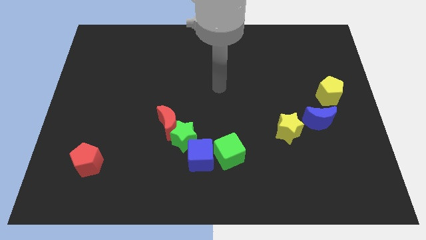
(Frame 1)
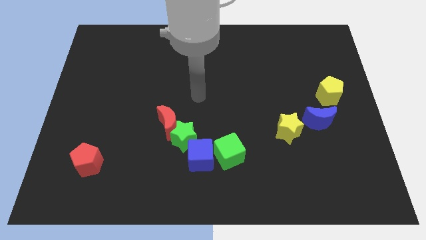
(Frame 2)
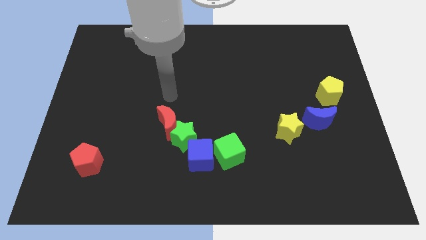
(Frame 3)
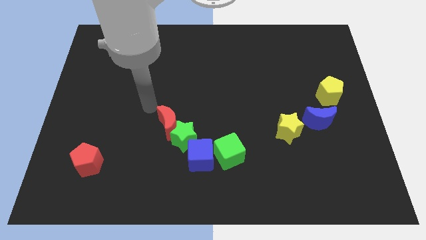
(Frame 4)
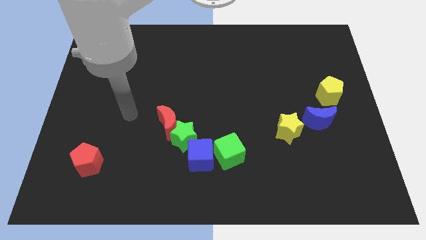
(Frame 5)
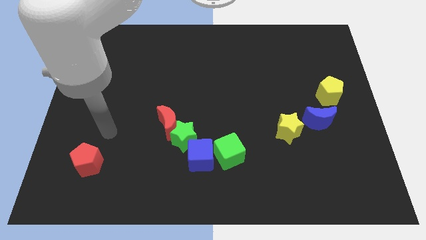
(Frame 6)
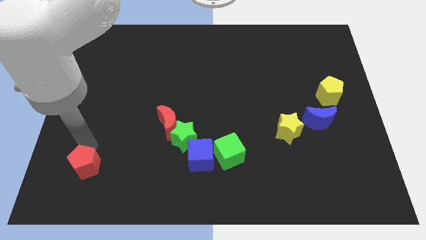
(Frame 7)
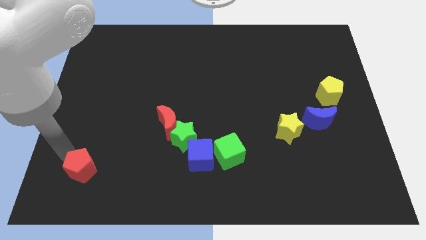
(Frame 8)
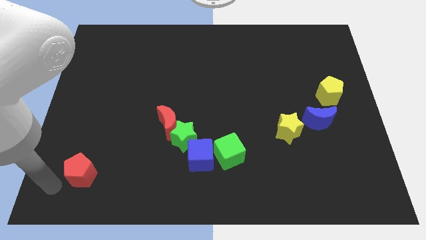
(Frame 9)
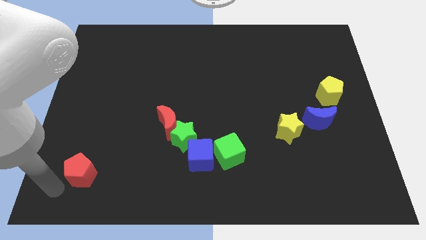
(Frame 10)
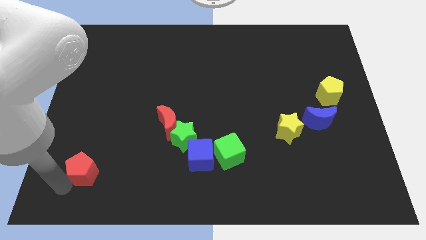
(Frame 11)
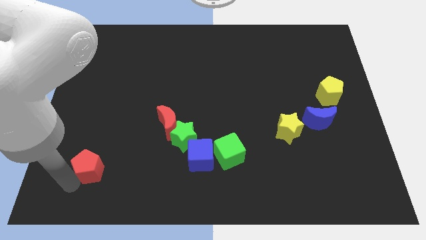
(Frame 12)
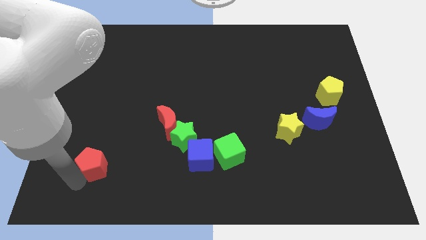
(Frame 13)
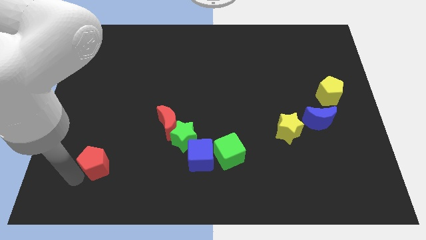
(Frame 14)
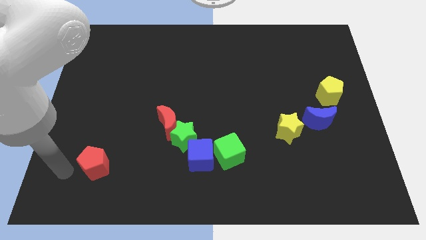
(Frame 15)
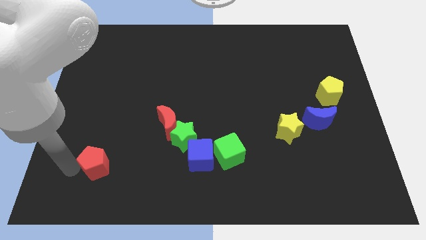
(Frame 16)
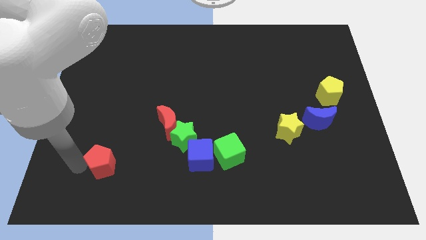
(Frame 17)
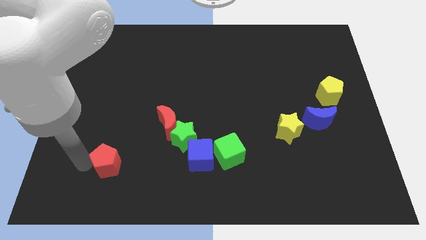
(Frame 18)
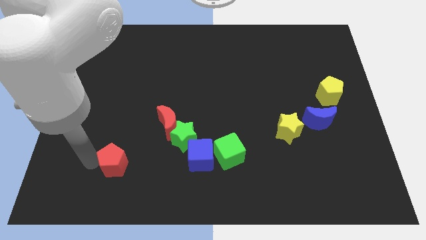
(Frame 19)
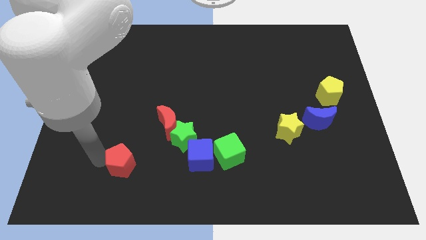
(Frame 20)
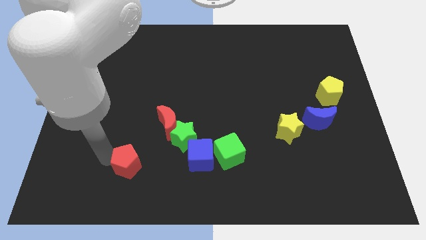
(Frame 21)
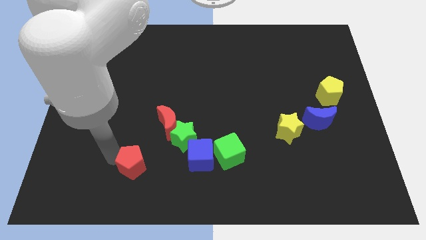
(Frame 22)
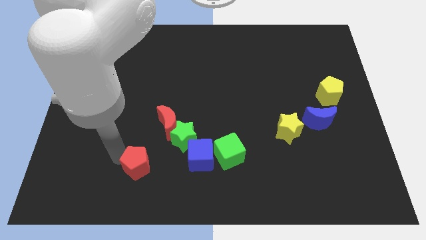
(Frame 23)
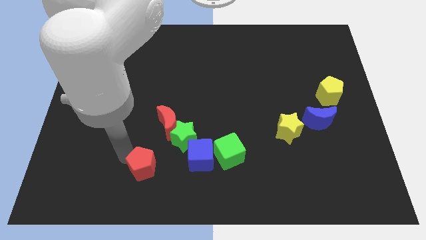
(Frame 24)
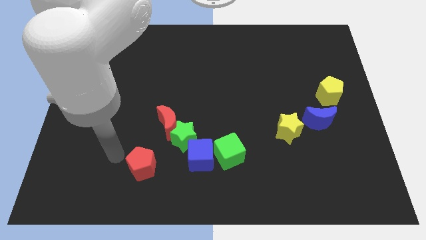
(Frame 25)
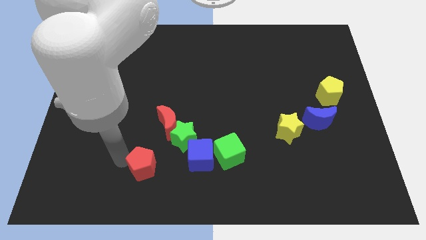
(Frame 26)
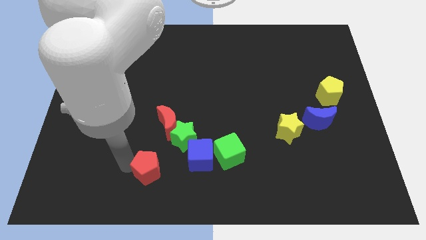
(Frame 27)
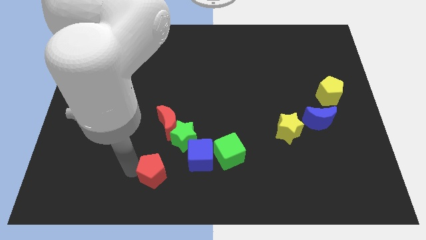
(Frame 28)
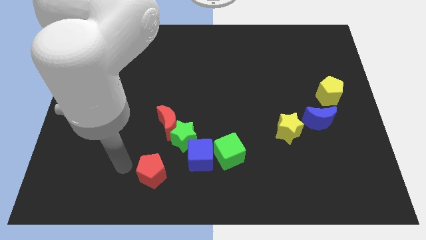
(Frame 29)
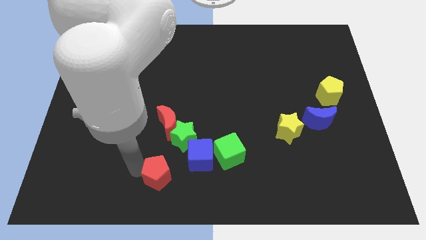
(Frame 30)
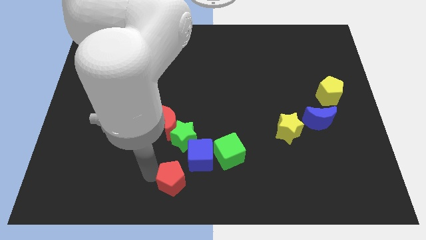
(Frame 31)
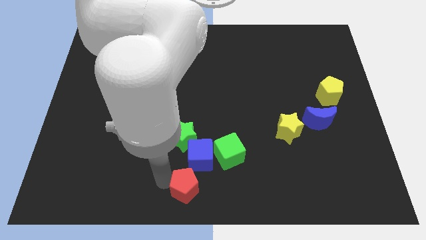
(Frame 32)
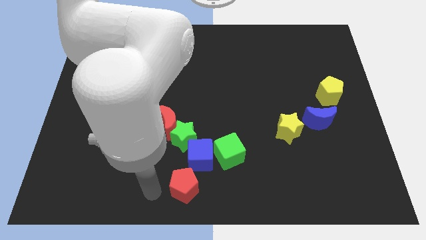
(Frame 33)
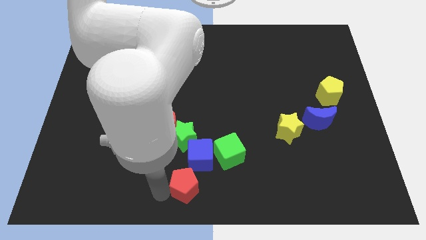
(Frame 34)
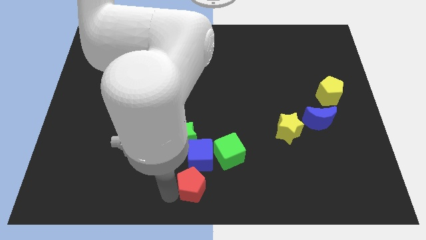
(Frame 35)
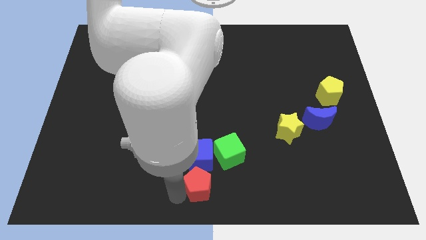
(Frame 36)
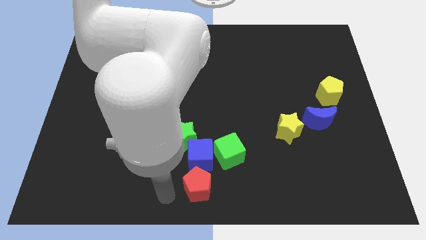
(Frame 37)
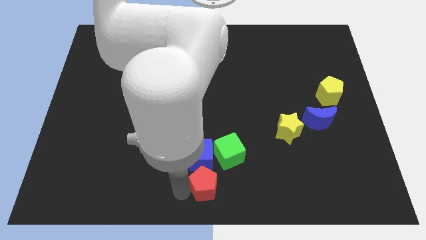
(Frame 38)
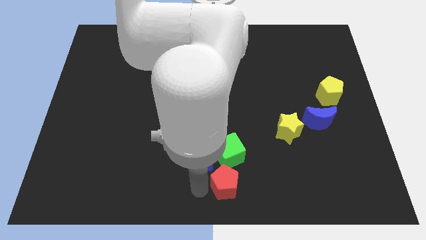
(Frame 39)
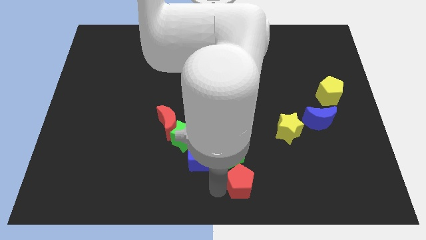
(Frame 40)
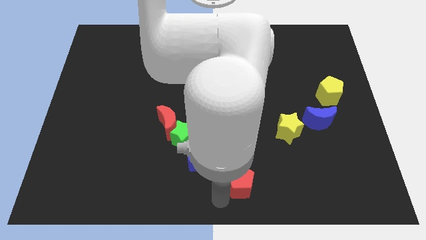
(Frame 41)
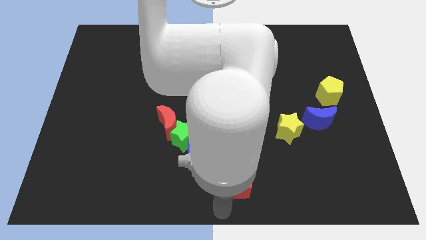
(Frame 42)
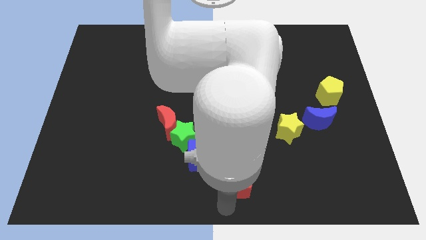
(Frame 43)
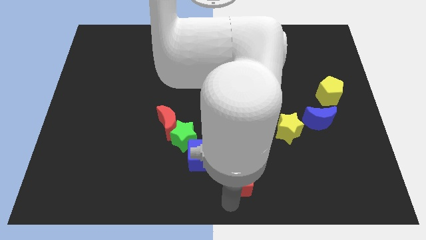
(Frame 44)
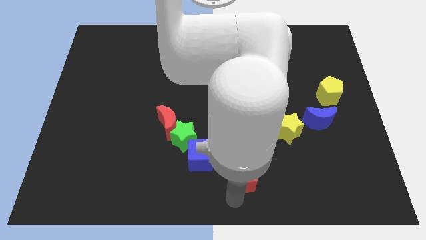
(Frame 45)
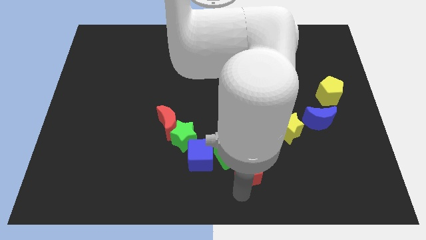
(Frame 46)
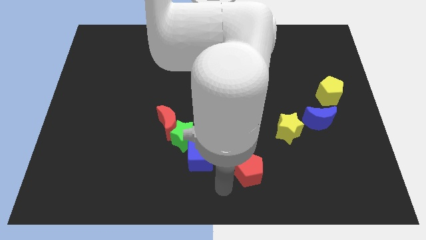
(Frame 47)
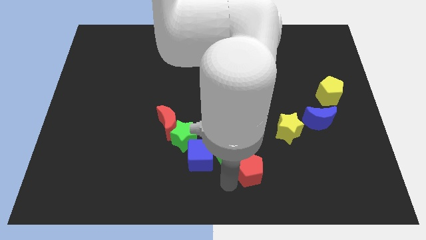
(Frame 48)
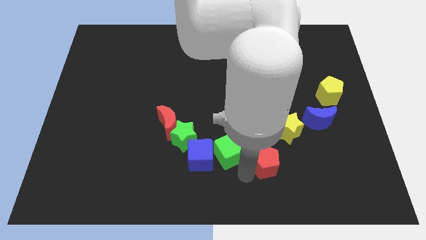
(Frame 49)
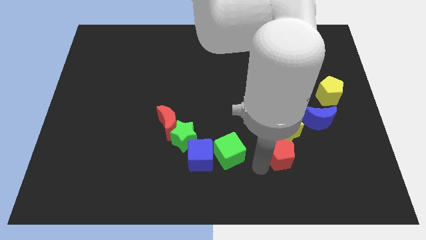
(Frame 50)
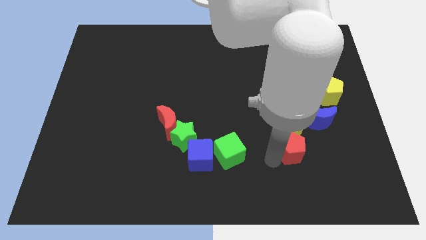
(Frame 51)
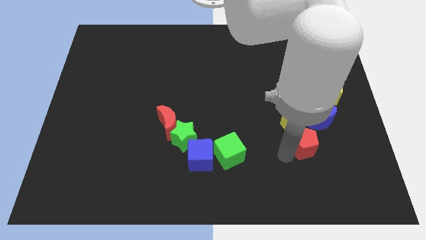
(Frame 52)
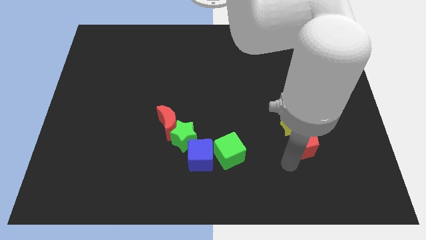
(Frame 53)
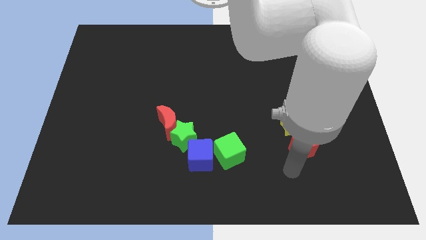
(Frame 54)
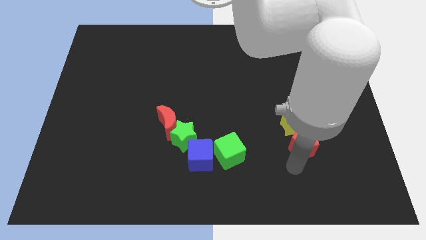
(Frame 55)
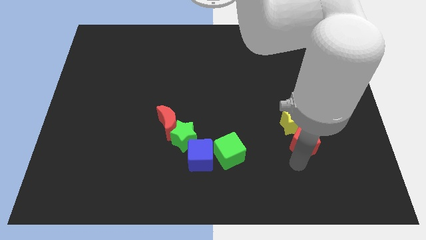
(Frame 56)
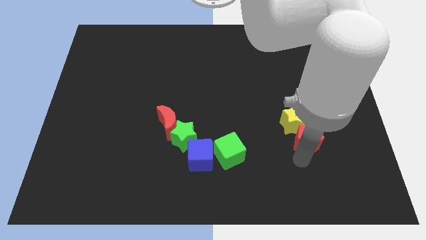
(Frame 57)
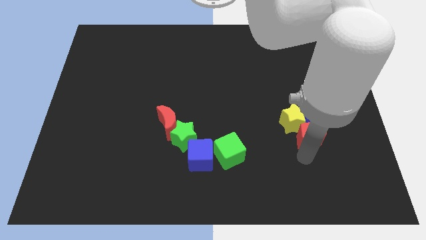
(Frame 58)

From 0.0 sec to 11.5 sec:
push the red pentagon towards the blue moon

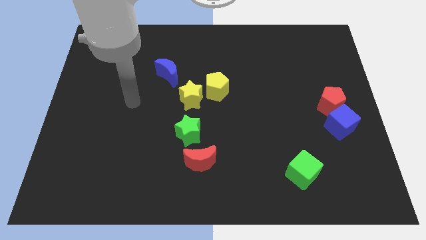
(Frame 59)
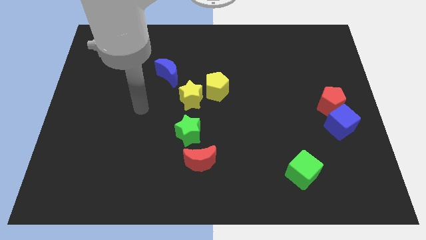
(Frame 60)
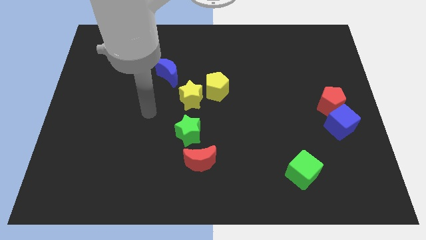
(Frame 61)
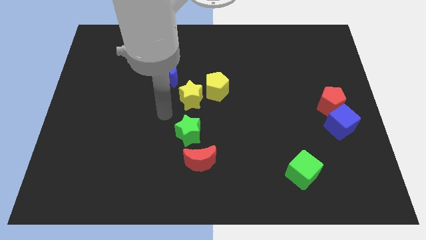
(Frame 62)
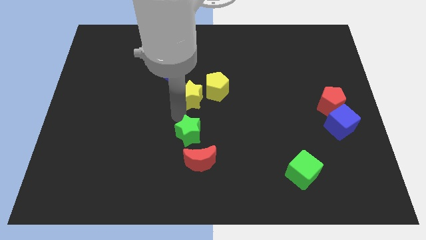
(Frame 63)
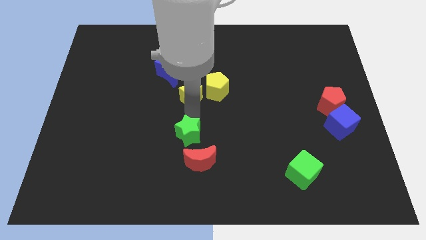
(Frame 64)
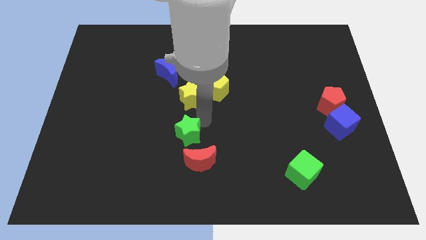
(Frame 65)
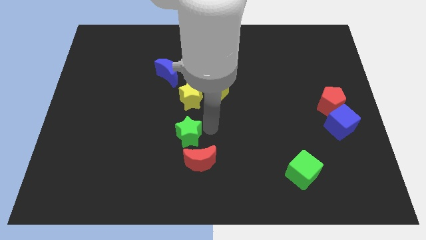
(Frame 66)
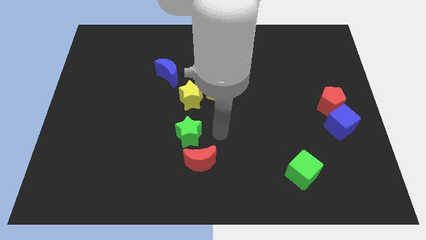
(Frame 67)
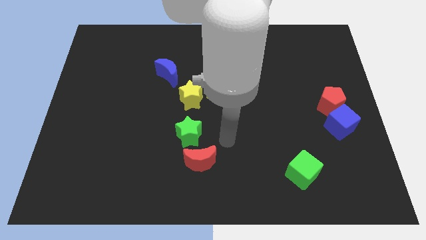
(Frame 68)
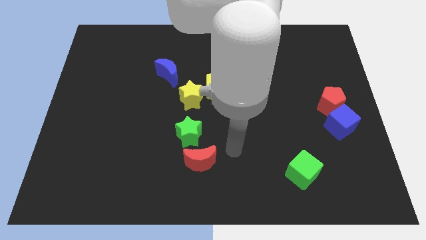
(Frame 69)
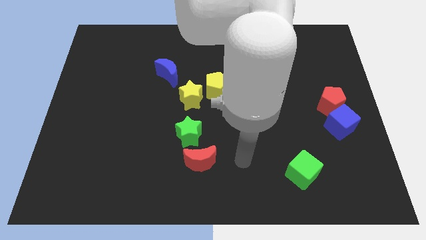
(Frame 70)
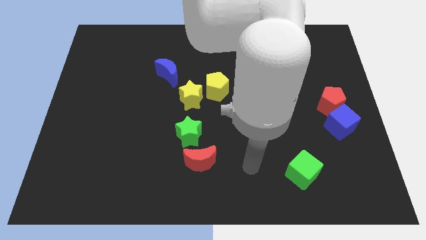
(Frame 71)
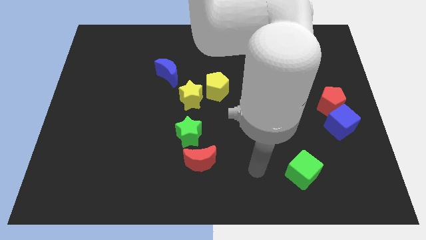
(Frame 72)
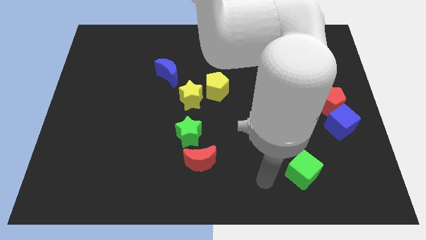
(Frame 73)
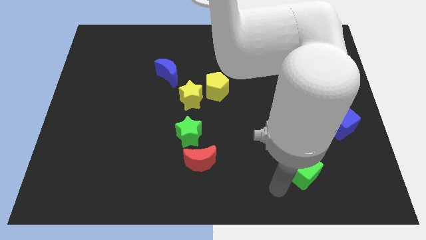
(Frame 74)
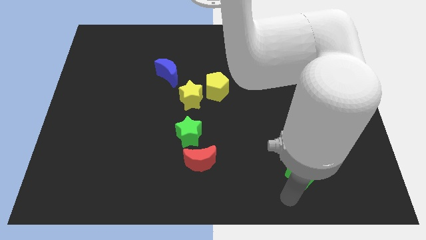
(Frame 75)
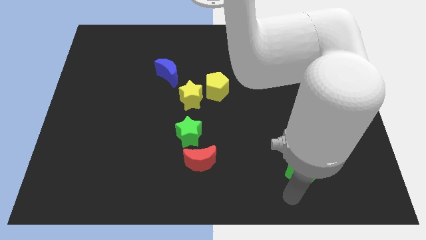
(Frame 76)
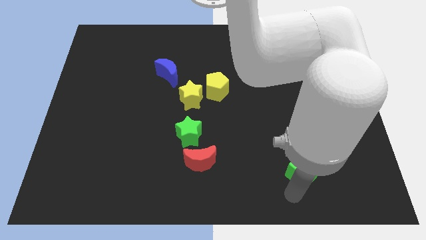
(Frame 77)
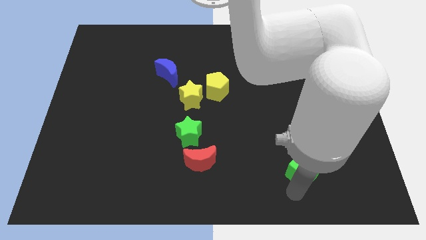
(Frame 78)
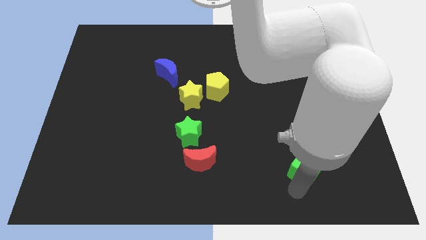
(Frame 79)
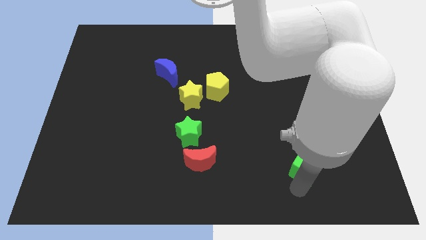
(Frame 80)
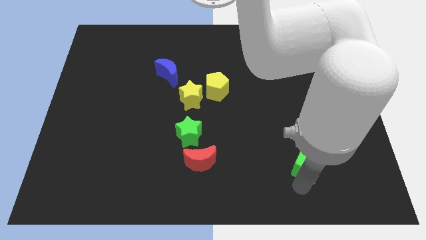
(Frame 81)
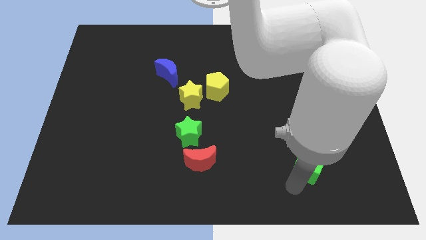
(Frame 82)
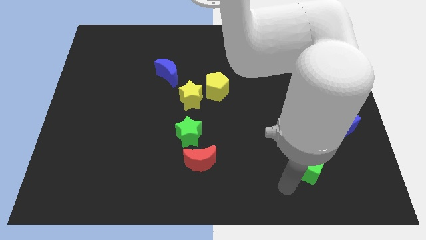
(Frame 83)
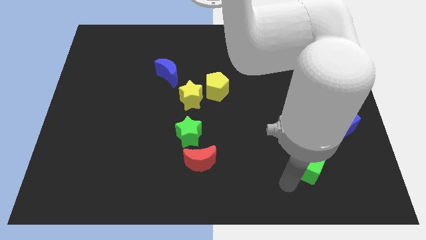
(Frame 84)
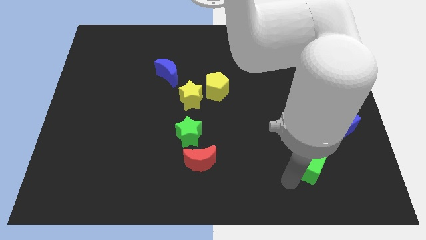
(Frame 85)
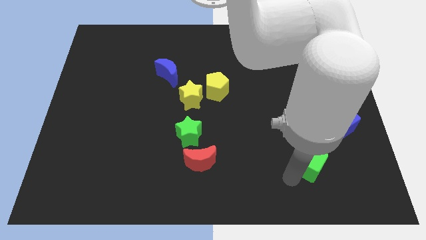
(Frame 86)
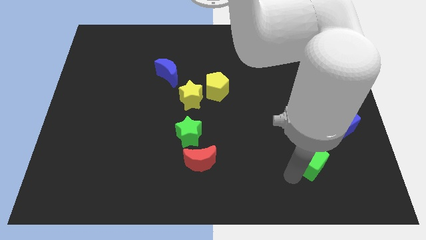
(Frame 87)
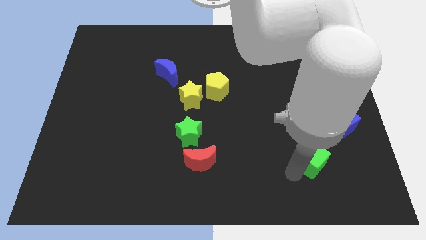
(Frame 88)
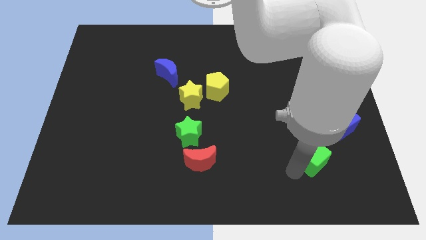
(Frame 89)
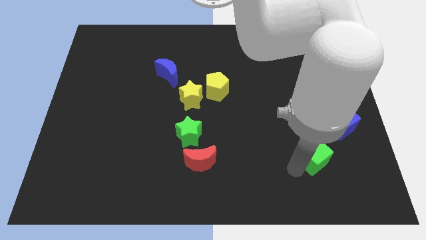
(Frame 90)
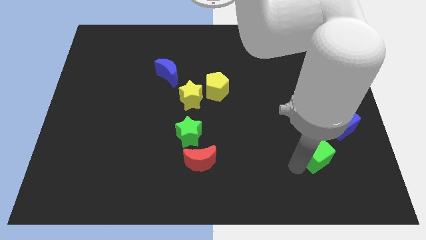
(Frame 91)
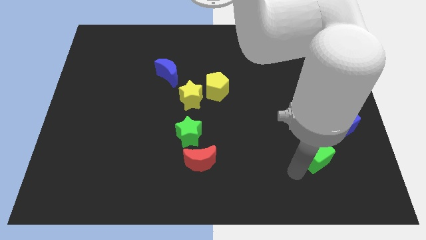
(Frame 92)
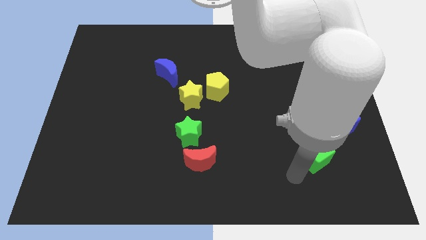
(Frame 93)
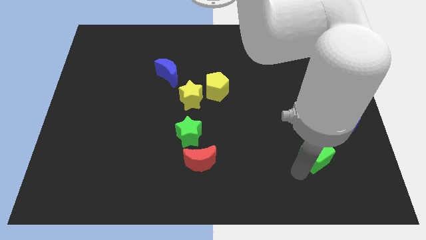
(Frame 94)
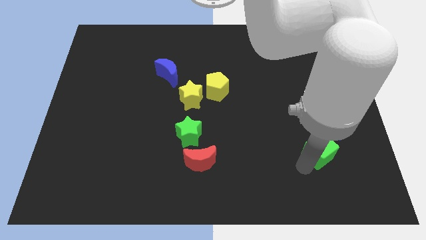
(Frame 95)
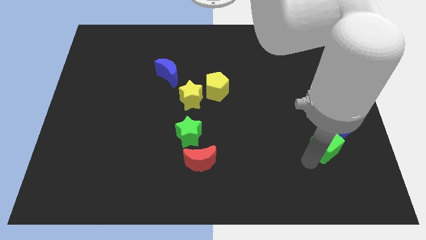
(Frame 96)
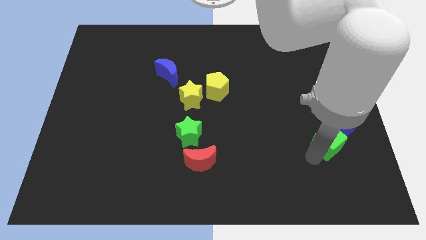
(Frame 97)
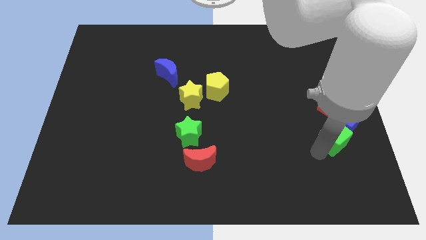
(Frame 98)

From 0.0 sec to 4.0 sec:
move the green cube to the blue cube
